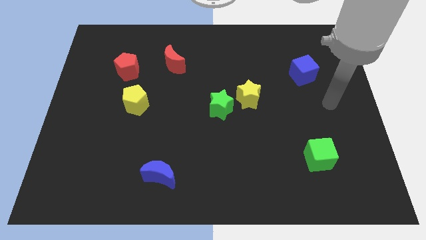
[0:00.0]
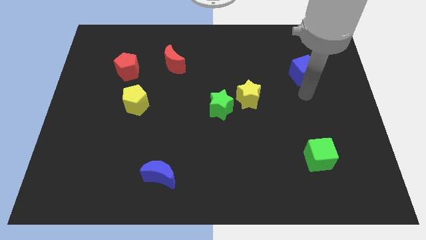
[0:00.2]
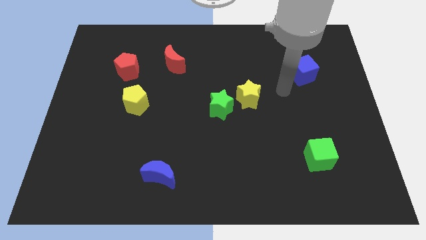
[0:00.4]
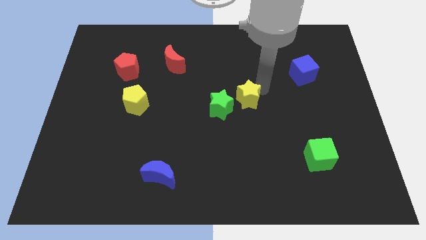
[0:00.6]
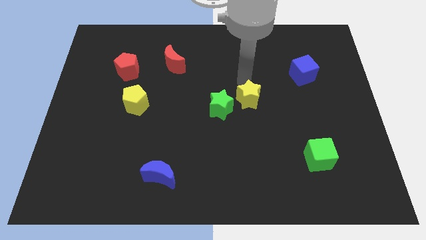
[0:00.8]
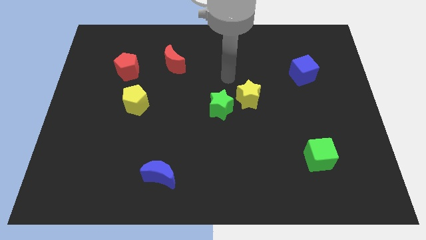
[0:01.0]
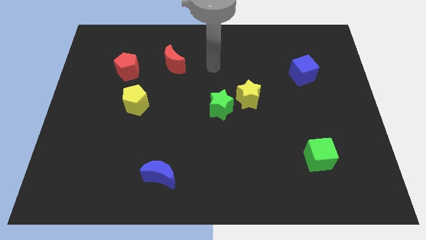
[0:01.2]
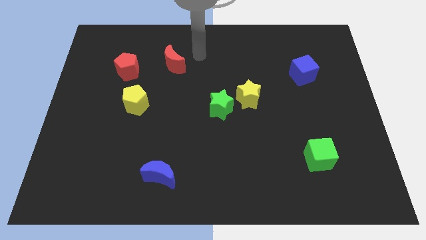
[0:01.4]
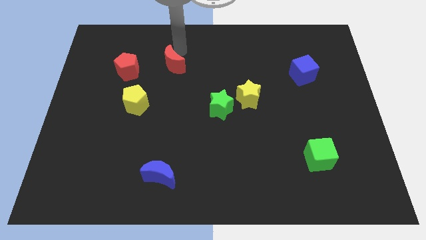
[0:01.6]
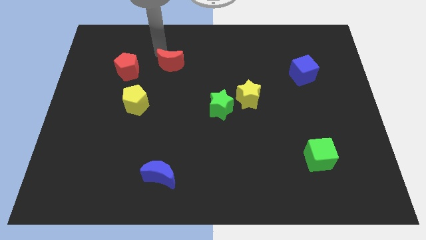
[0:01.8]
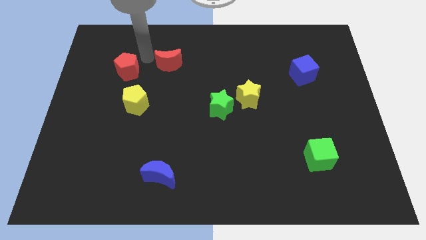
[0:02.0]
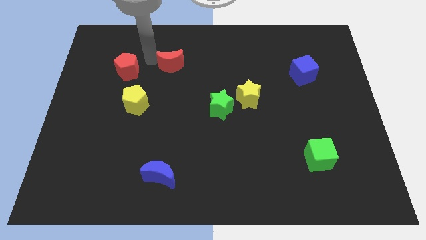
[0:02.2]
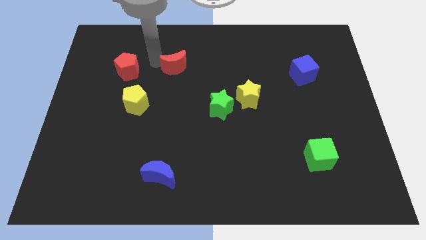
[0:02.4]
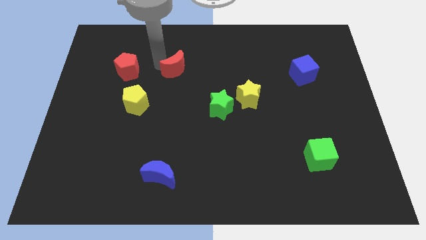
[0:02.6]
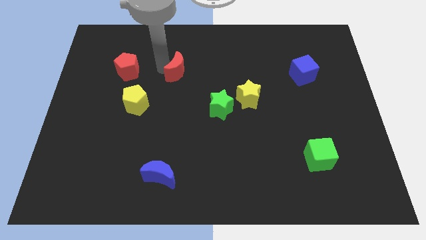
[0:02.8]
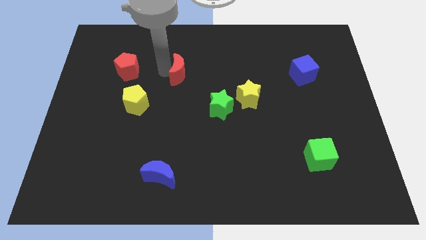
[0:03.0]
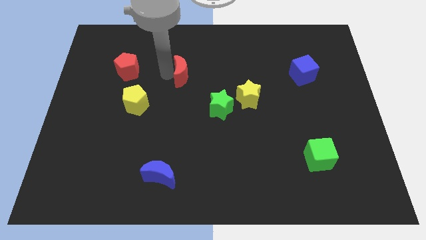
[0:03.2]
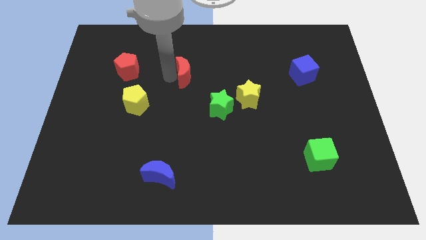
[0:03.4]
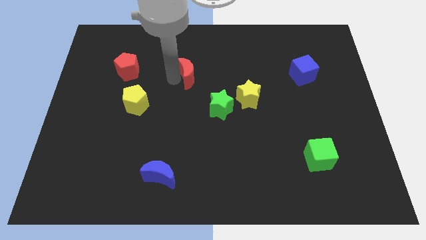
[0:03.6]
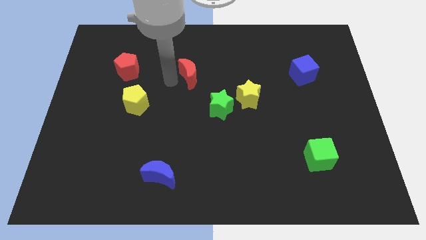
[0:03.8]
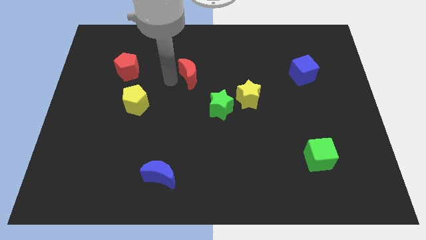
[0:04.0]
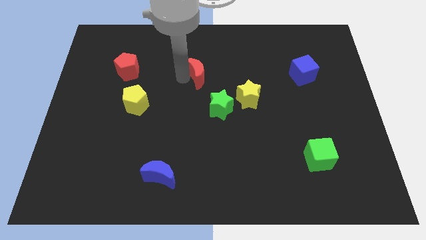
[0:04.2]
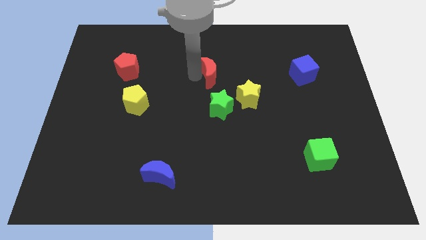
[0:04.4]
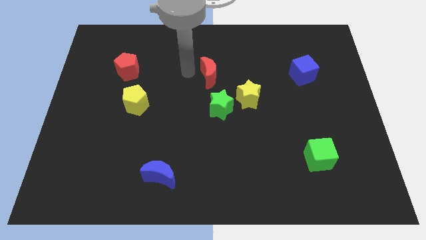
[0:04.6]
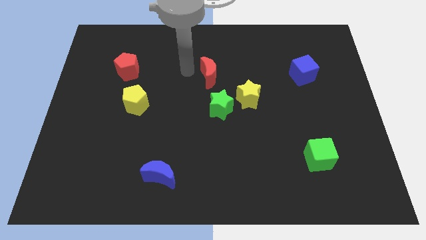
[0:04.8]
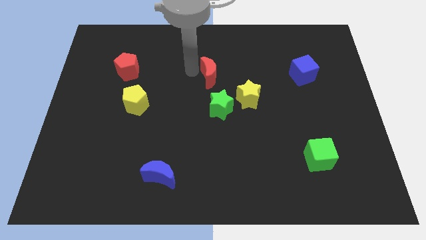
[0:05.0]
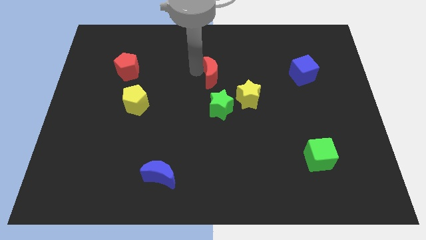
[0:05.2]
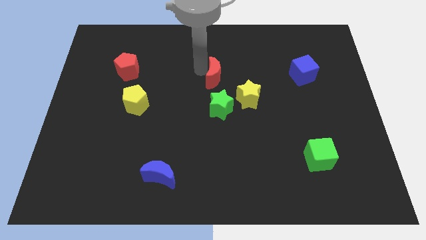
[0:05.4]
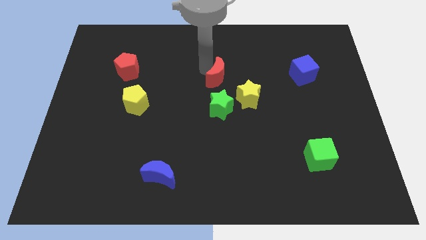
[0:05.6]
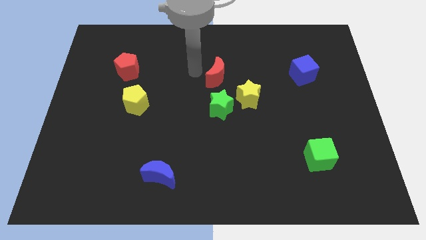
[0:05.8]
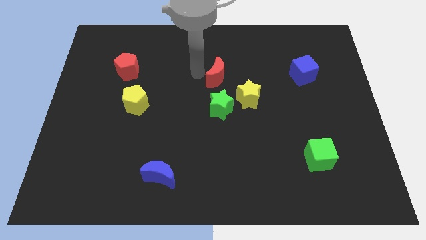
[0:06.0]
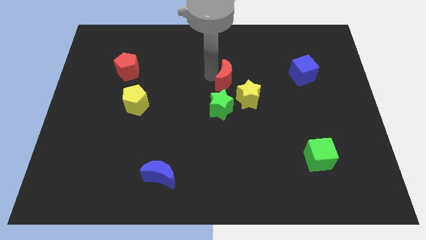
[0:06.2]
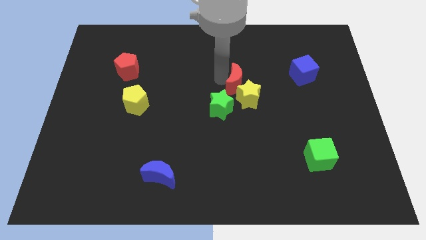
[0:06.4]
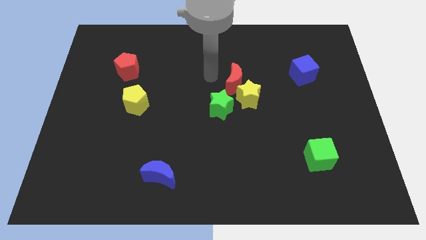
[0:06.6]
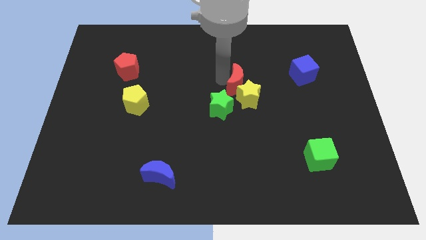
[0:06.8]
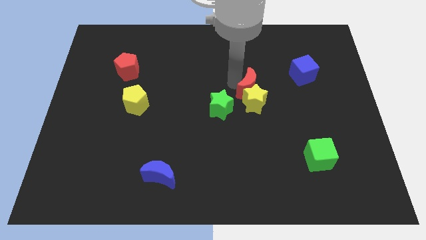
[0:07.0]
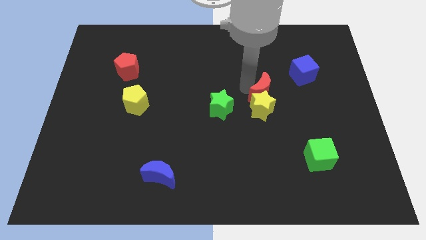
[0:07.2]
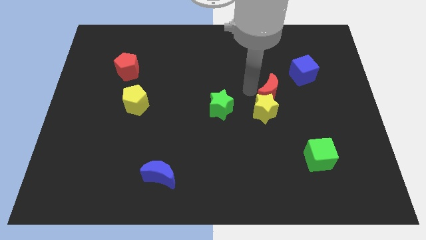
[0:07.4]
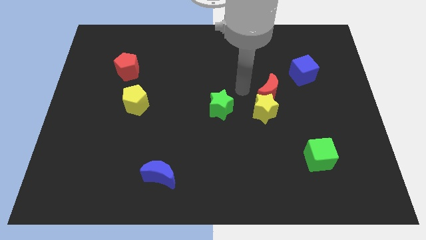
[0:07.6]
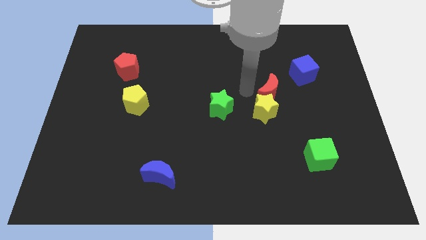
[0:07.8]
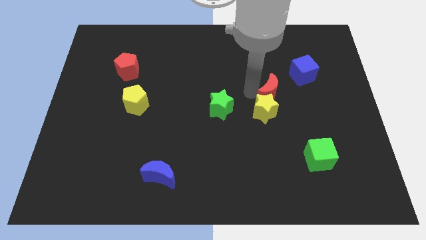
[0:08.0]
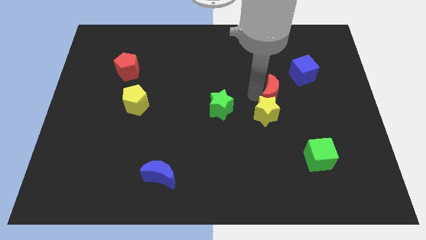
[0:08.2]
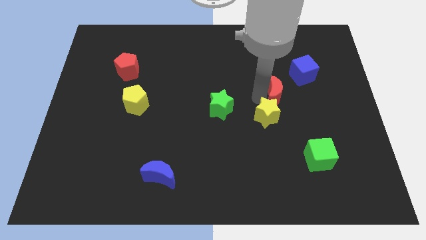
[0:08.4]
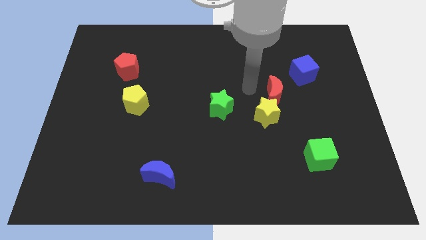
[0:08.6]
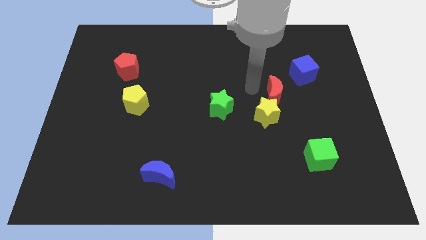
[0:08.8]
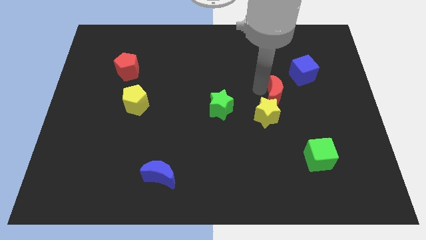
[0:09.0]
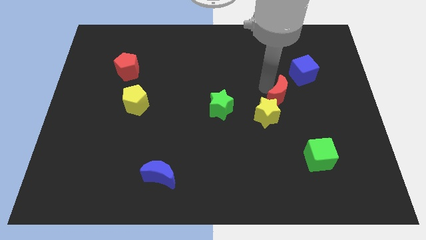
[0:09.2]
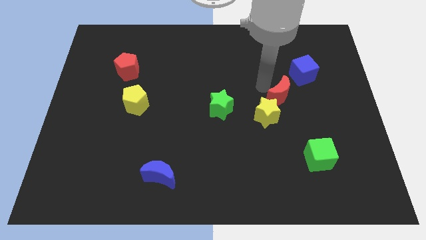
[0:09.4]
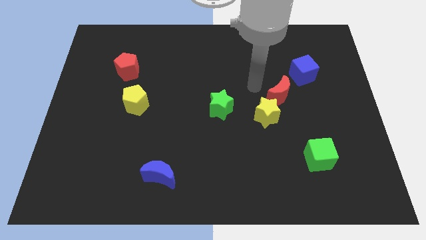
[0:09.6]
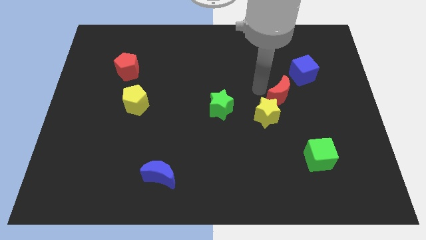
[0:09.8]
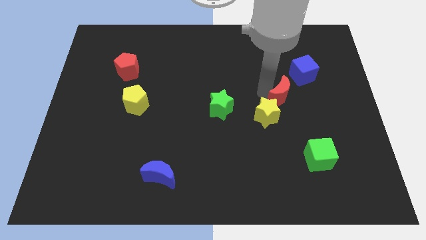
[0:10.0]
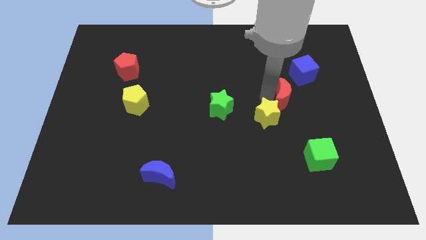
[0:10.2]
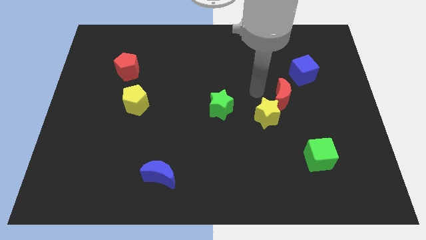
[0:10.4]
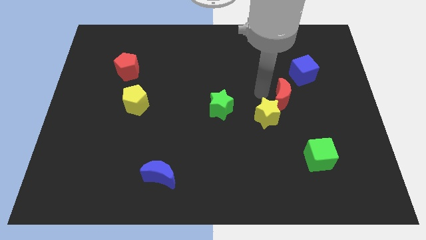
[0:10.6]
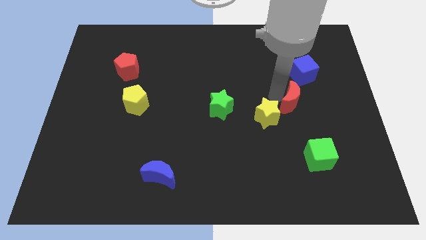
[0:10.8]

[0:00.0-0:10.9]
push the red moon to the bottom of the blue cube

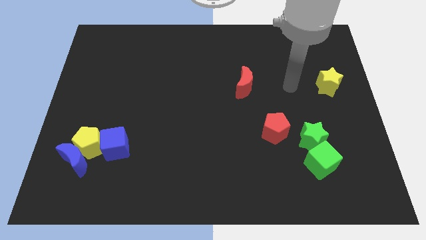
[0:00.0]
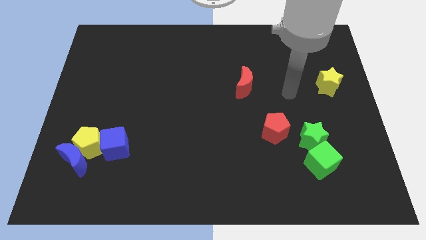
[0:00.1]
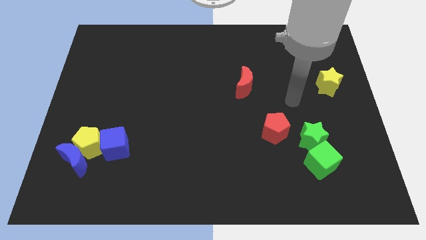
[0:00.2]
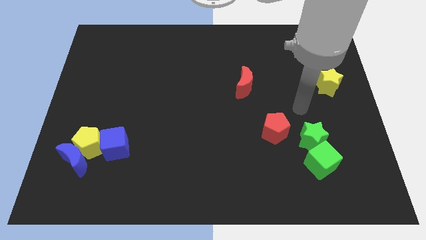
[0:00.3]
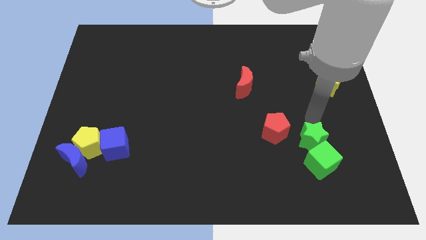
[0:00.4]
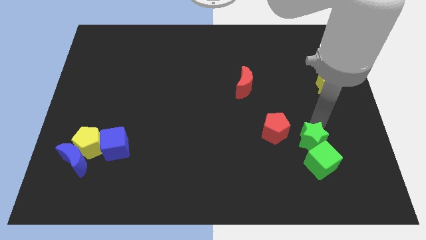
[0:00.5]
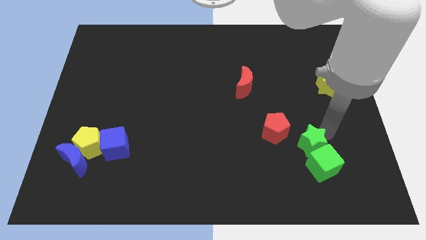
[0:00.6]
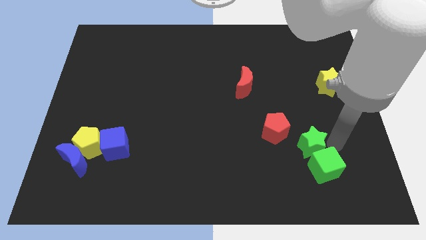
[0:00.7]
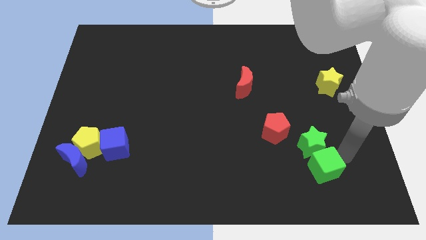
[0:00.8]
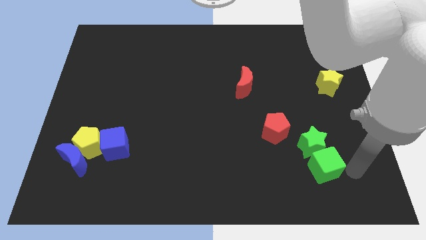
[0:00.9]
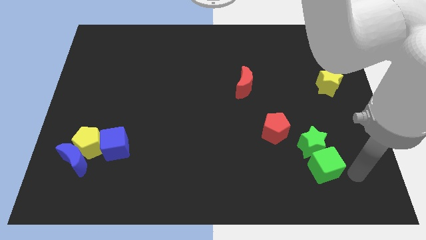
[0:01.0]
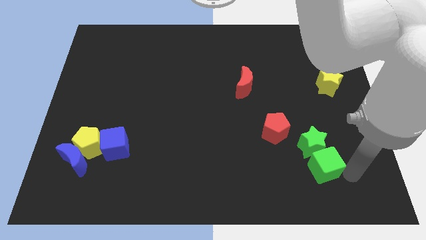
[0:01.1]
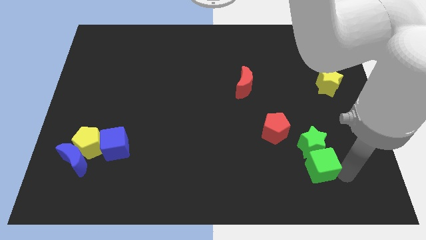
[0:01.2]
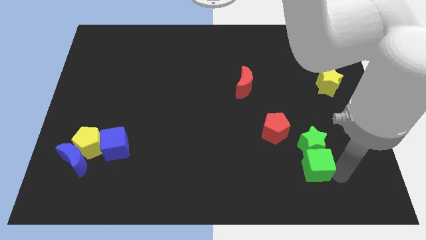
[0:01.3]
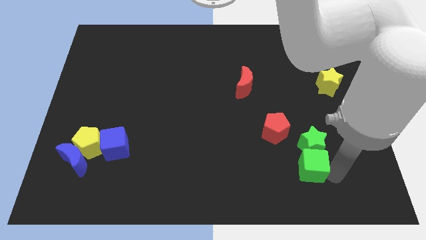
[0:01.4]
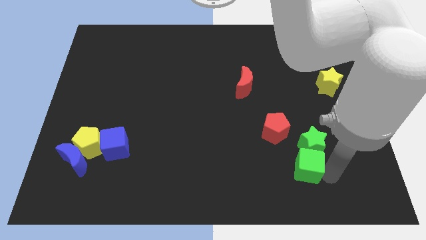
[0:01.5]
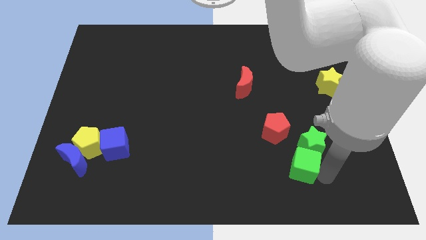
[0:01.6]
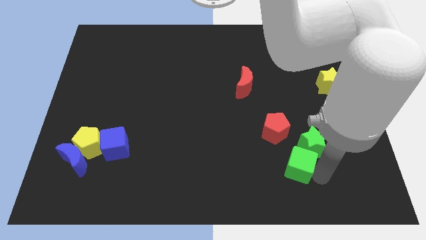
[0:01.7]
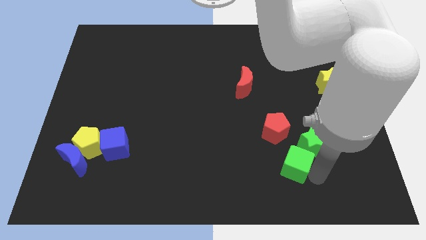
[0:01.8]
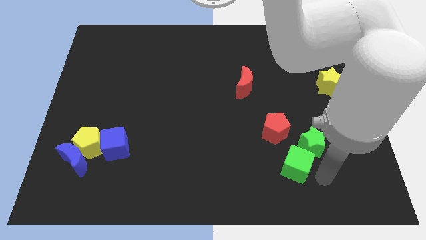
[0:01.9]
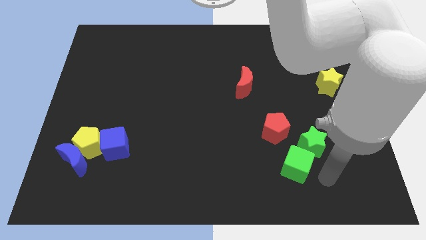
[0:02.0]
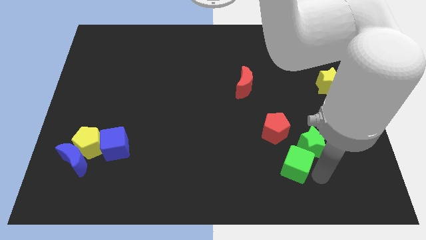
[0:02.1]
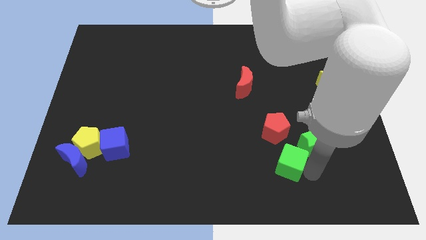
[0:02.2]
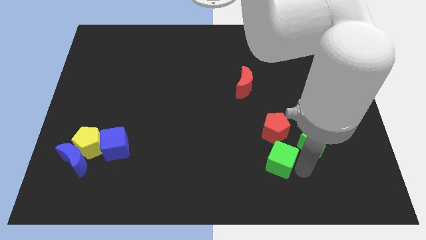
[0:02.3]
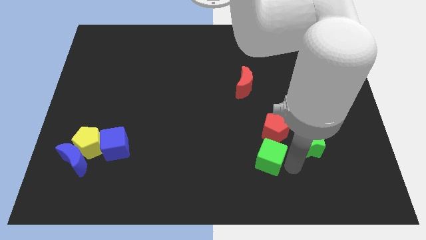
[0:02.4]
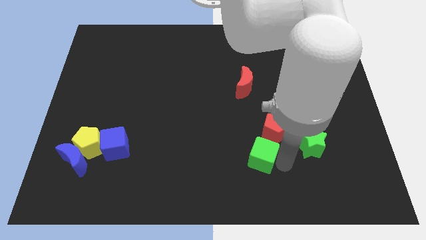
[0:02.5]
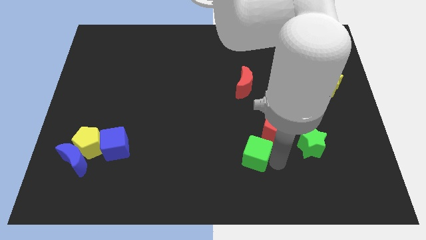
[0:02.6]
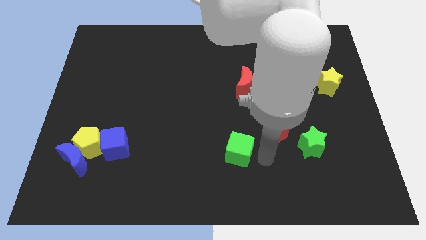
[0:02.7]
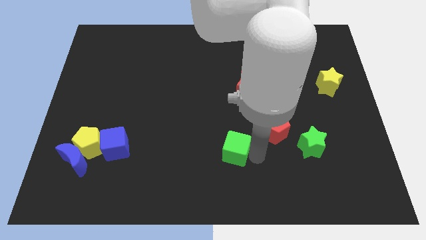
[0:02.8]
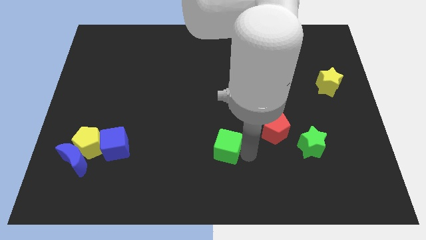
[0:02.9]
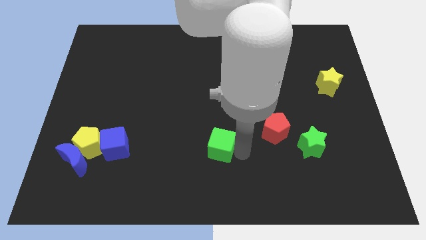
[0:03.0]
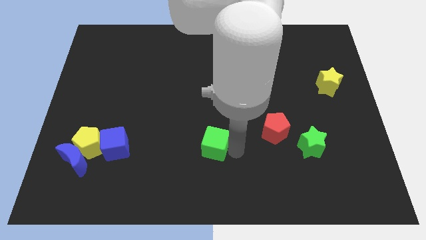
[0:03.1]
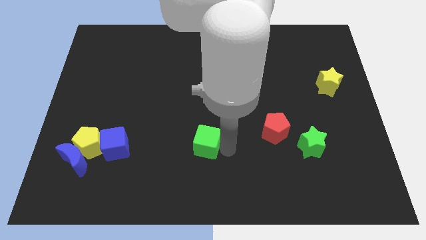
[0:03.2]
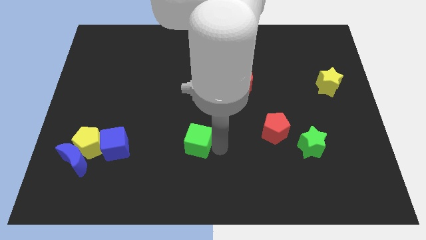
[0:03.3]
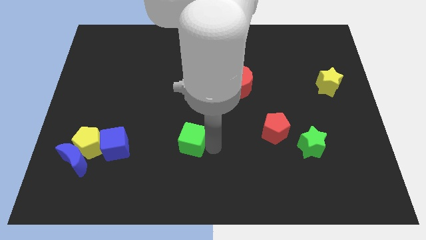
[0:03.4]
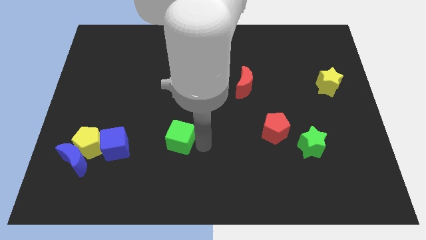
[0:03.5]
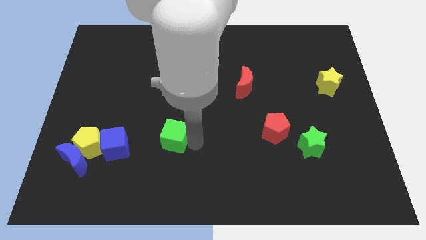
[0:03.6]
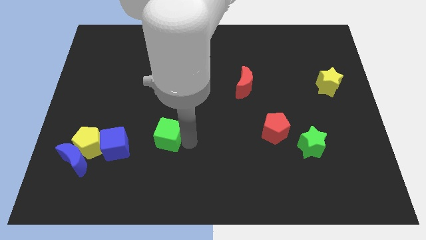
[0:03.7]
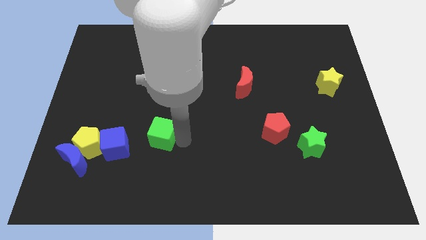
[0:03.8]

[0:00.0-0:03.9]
push the green cube right of the yellow pentagon
